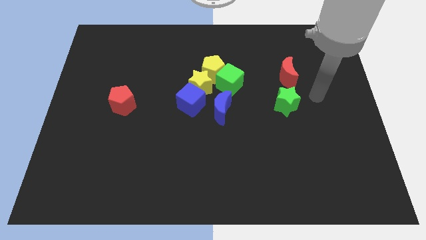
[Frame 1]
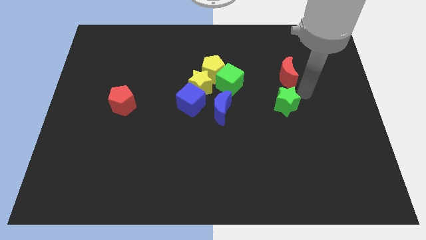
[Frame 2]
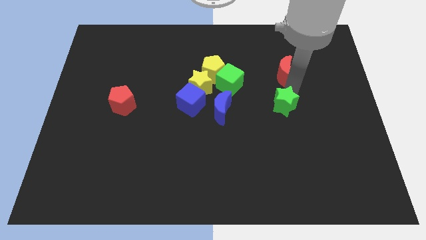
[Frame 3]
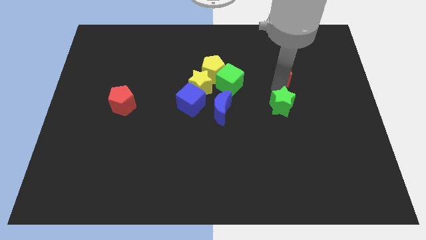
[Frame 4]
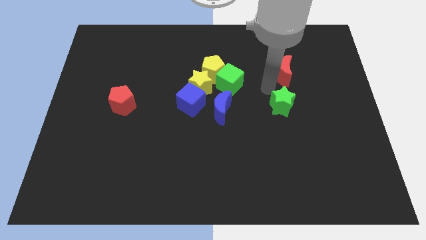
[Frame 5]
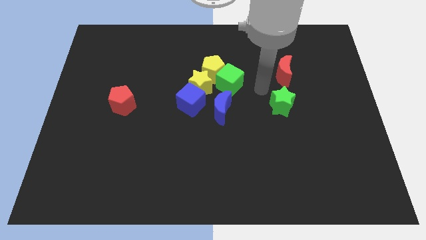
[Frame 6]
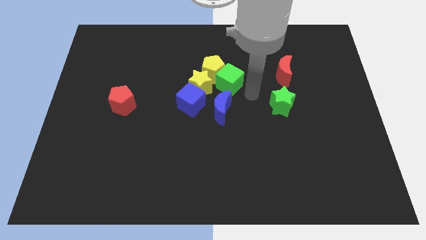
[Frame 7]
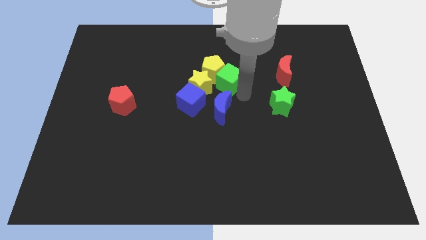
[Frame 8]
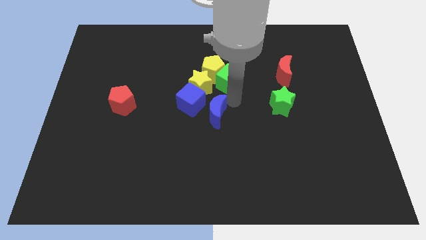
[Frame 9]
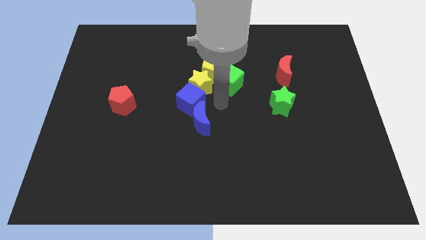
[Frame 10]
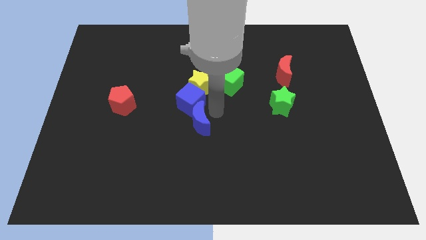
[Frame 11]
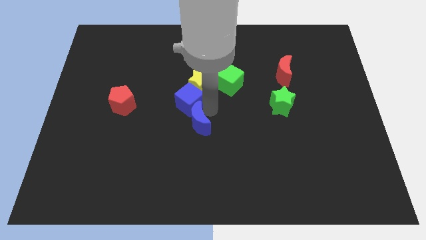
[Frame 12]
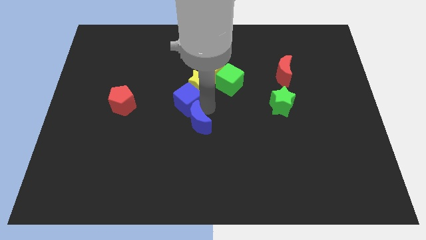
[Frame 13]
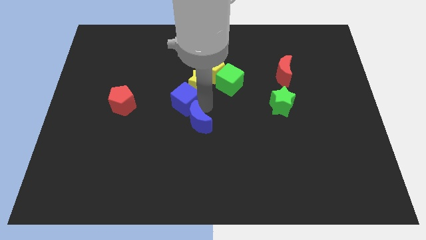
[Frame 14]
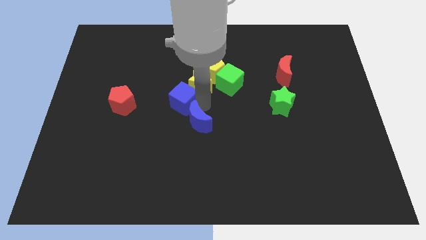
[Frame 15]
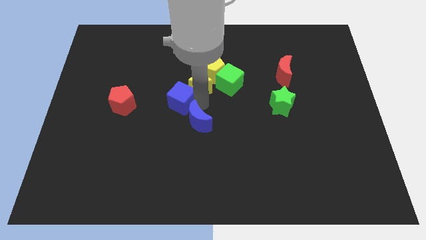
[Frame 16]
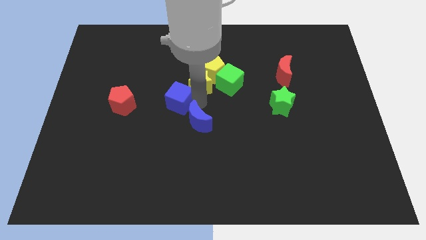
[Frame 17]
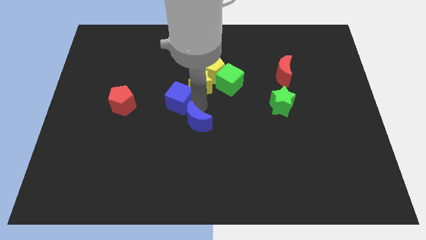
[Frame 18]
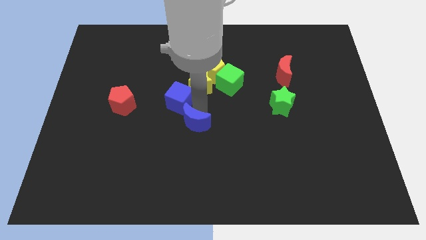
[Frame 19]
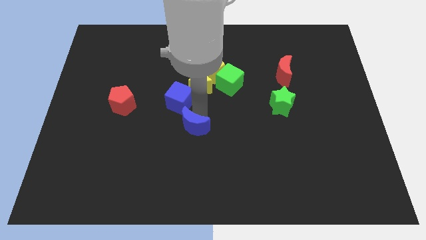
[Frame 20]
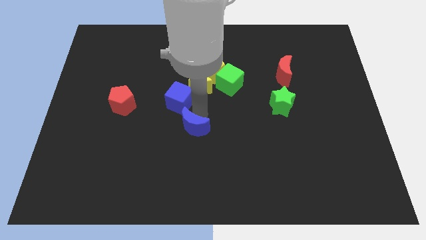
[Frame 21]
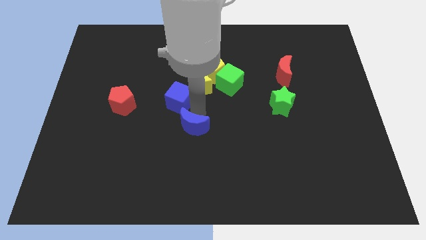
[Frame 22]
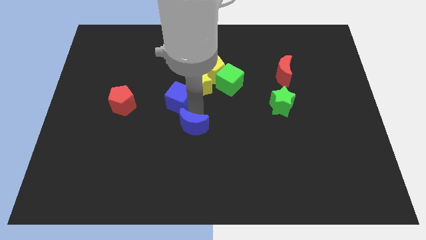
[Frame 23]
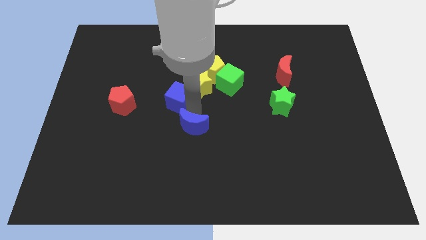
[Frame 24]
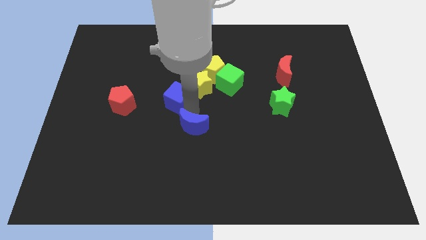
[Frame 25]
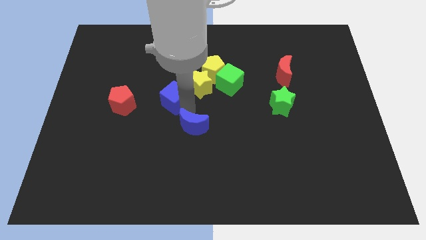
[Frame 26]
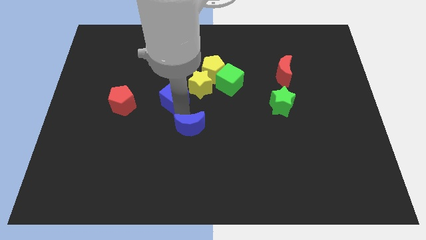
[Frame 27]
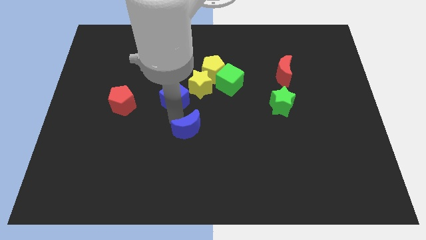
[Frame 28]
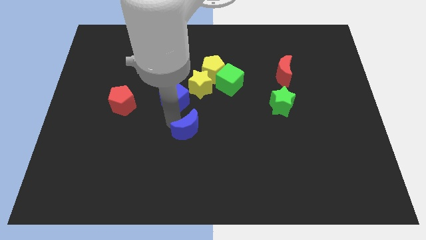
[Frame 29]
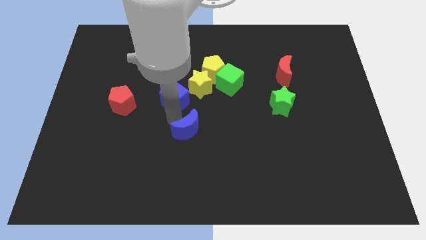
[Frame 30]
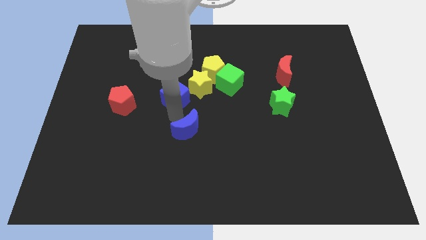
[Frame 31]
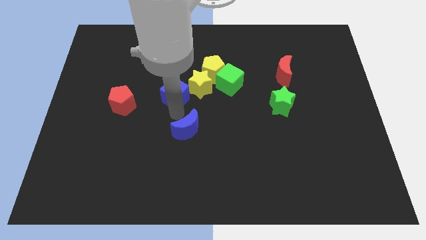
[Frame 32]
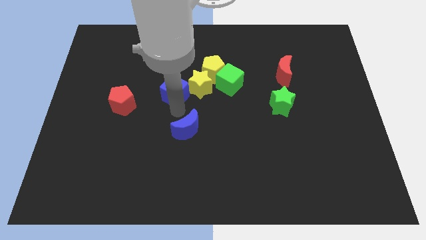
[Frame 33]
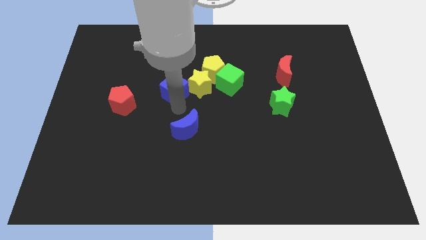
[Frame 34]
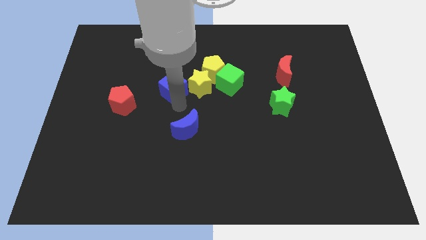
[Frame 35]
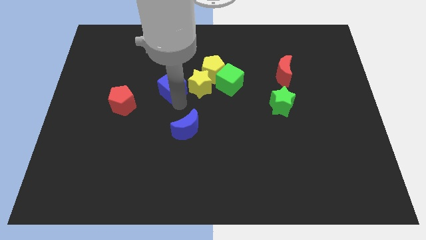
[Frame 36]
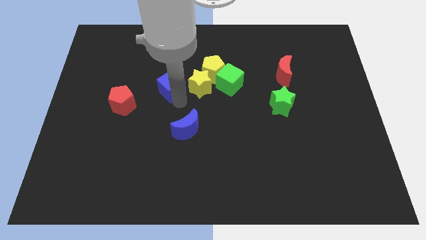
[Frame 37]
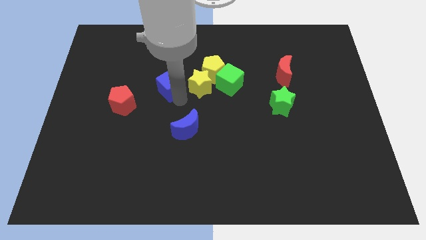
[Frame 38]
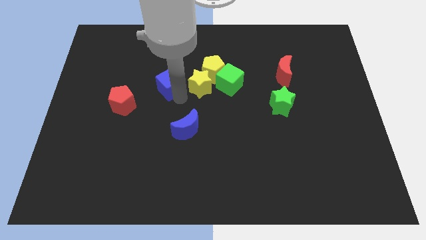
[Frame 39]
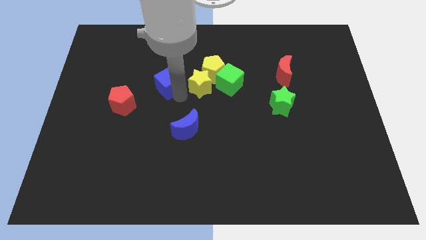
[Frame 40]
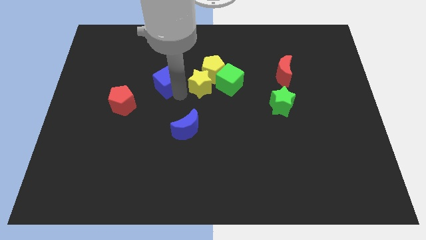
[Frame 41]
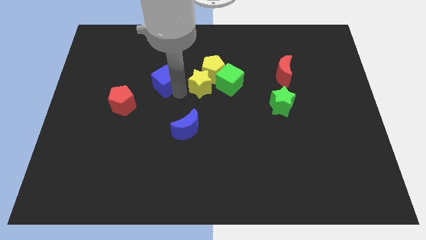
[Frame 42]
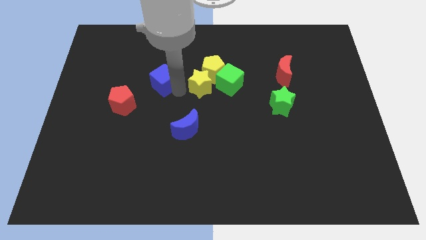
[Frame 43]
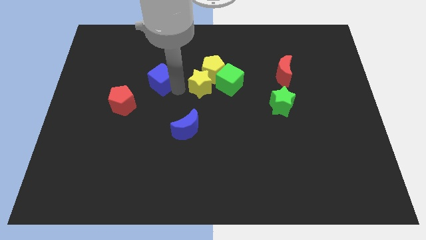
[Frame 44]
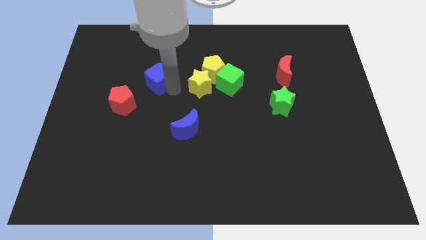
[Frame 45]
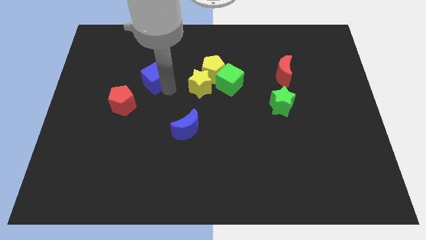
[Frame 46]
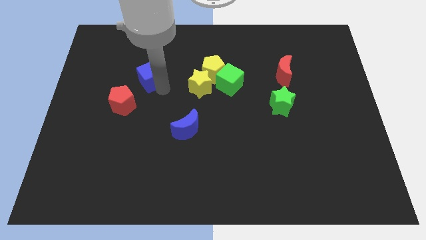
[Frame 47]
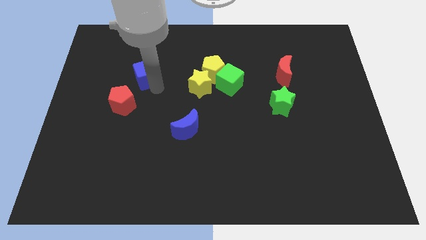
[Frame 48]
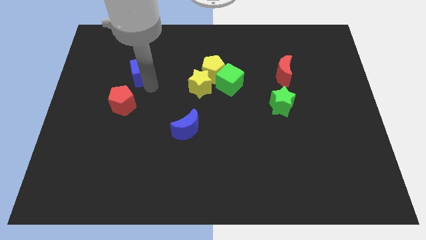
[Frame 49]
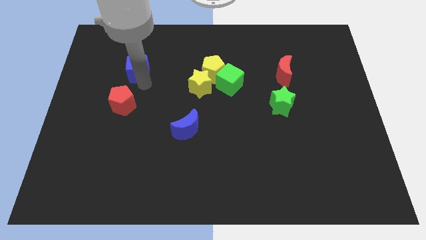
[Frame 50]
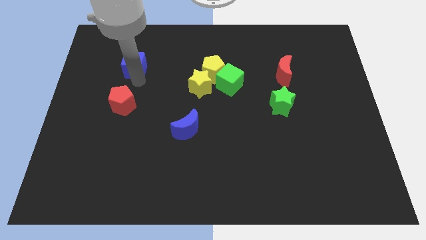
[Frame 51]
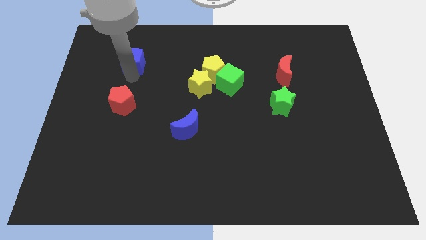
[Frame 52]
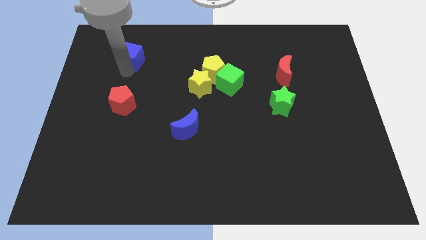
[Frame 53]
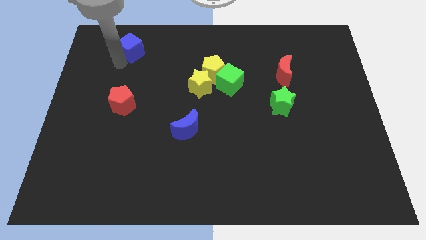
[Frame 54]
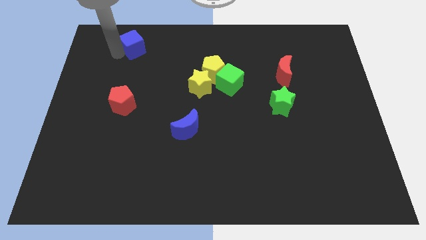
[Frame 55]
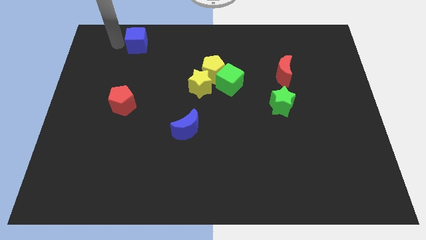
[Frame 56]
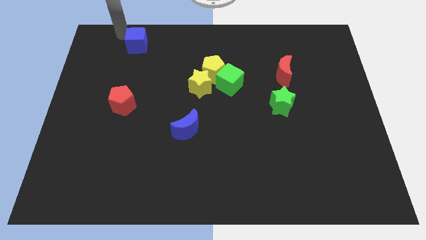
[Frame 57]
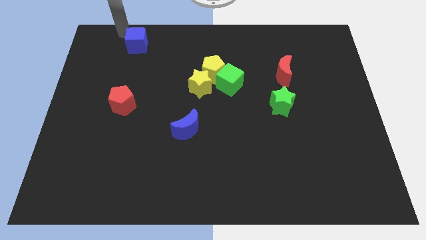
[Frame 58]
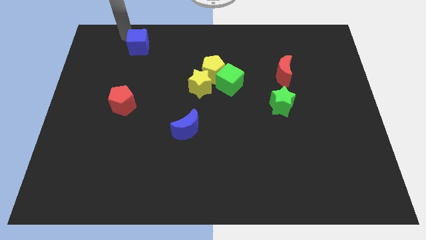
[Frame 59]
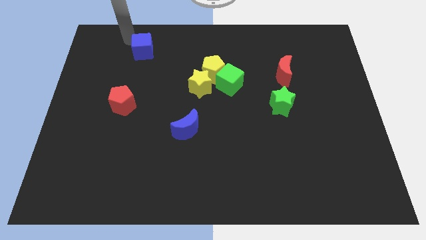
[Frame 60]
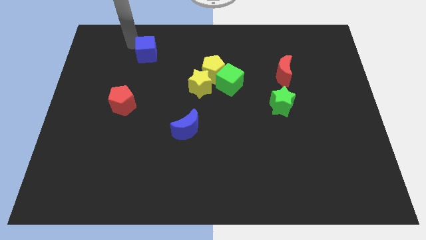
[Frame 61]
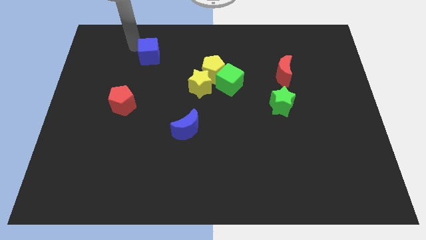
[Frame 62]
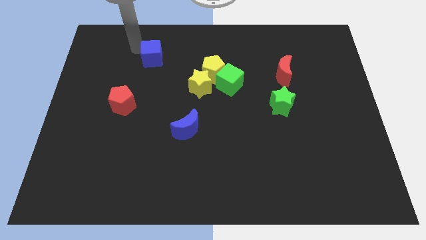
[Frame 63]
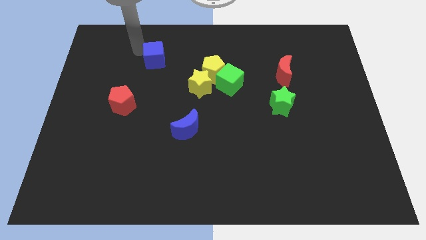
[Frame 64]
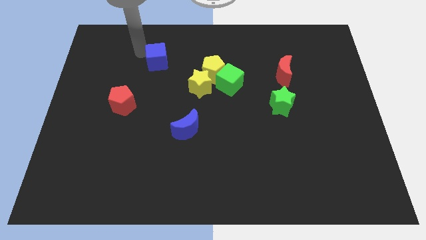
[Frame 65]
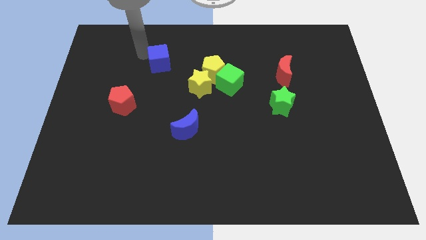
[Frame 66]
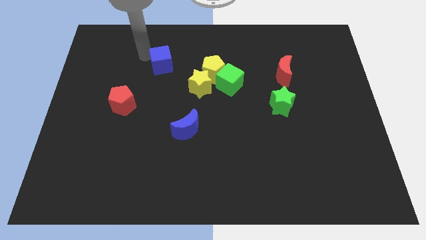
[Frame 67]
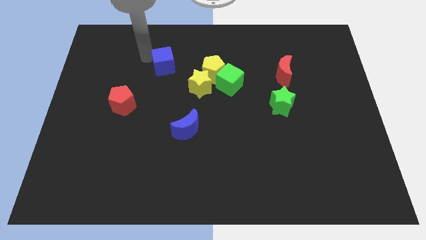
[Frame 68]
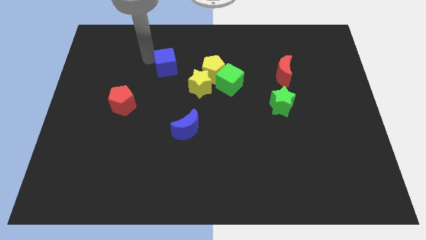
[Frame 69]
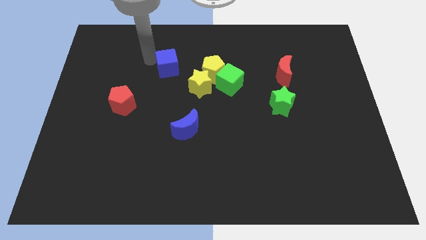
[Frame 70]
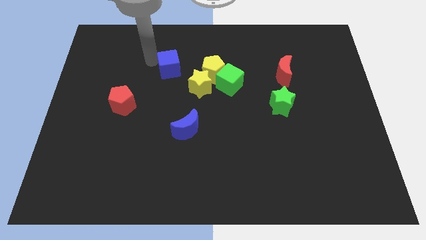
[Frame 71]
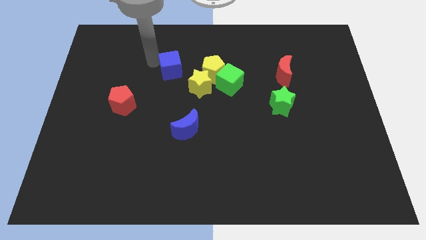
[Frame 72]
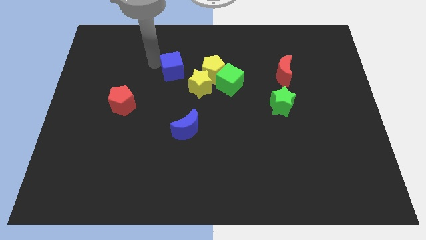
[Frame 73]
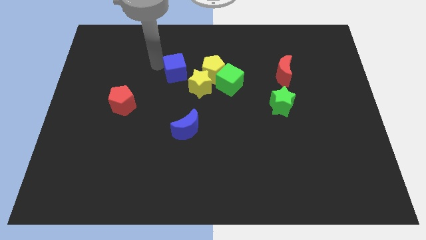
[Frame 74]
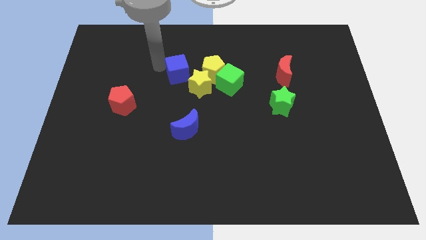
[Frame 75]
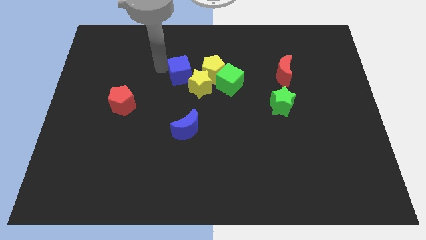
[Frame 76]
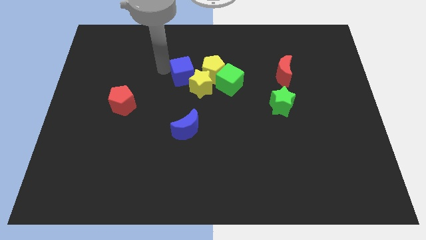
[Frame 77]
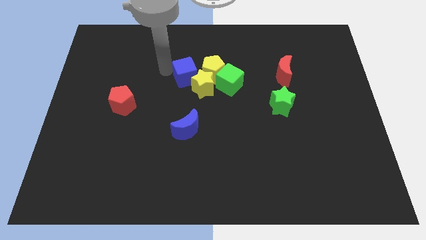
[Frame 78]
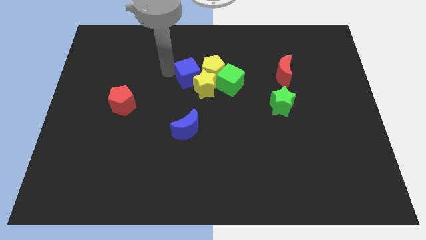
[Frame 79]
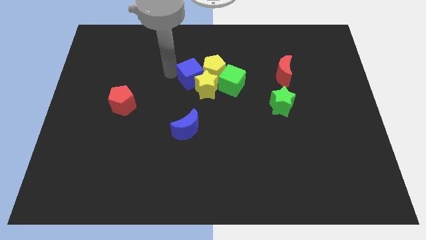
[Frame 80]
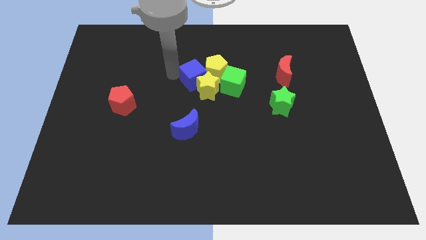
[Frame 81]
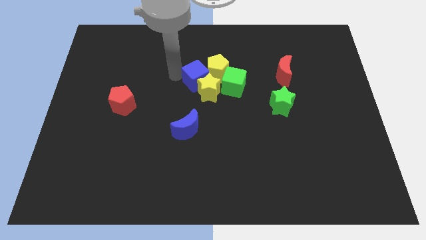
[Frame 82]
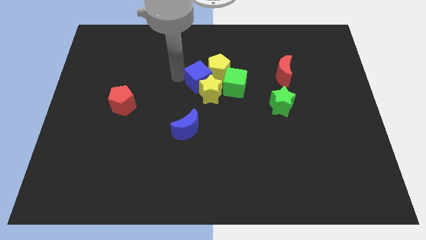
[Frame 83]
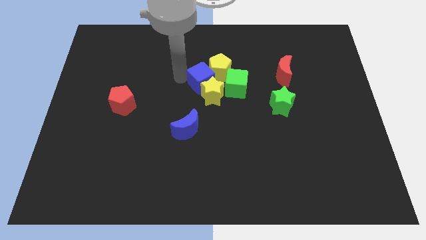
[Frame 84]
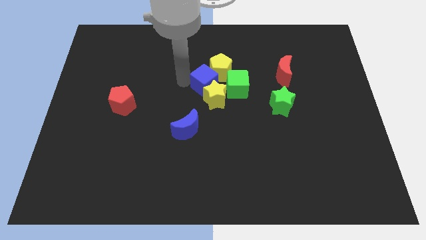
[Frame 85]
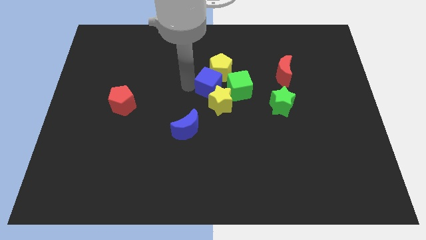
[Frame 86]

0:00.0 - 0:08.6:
push the blue cube a little up and to the right diagonally
